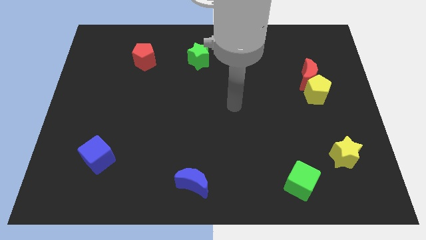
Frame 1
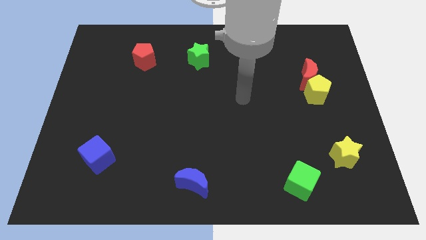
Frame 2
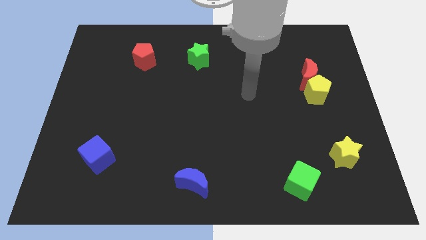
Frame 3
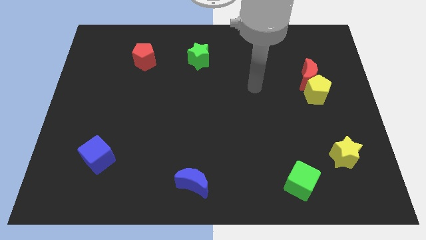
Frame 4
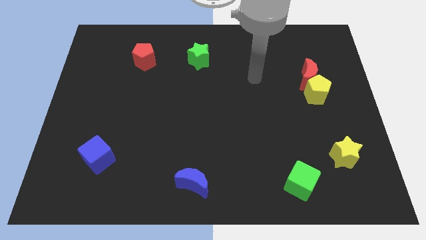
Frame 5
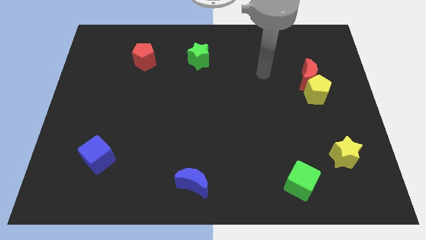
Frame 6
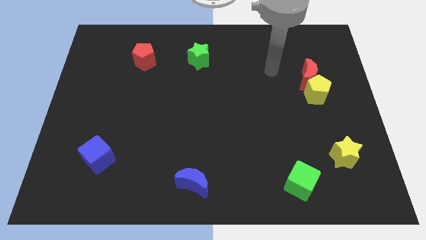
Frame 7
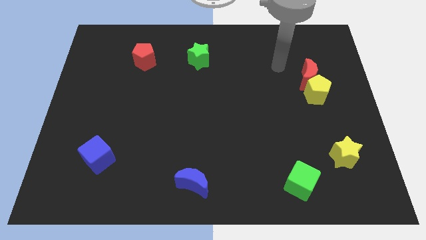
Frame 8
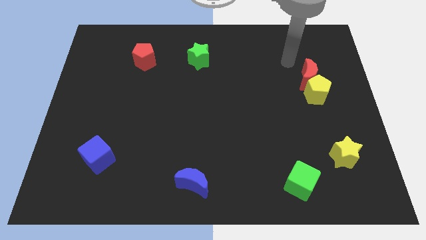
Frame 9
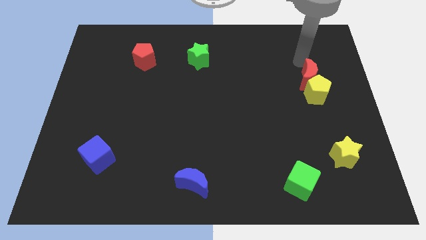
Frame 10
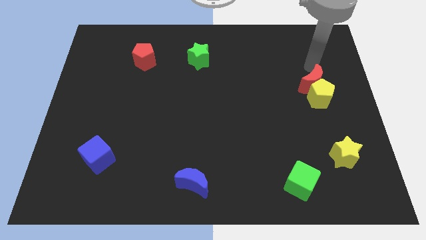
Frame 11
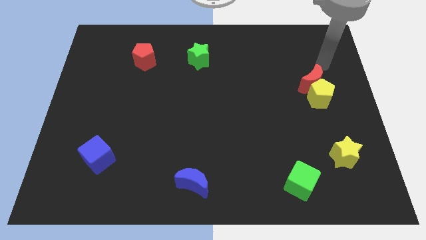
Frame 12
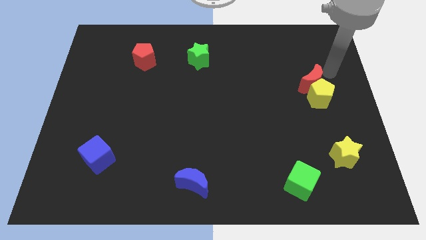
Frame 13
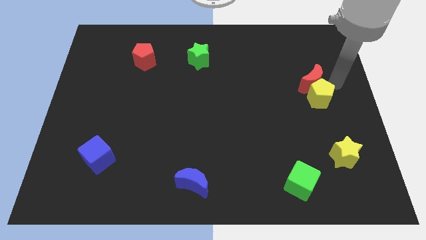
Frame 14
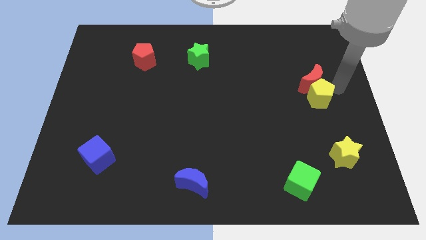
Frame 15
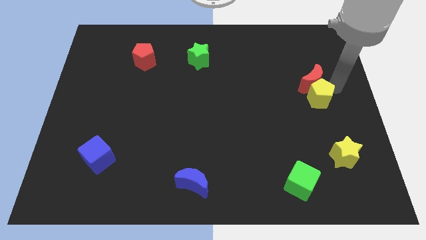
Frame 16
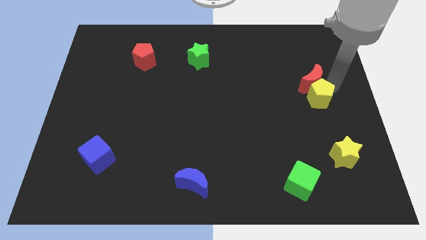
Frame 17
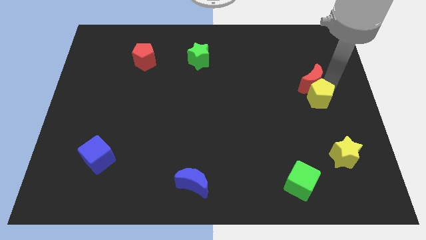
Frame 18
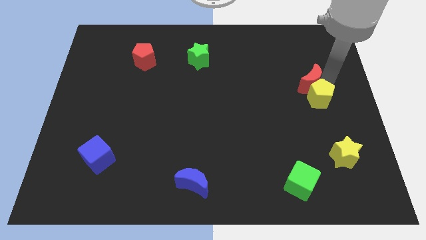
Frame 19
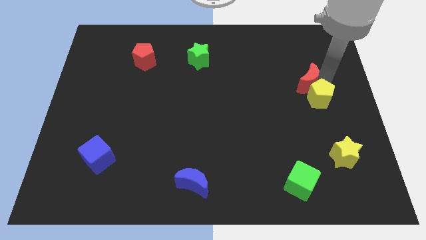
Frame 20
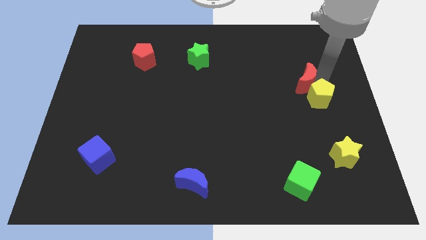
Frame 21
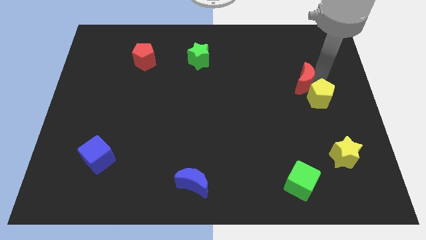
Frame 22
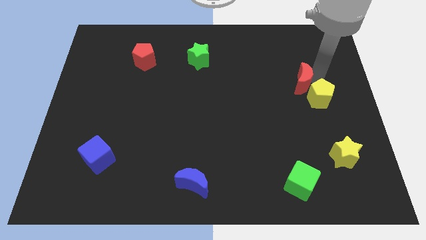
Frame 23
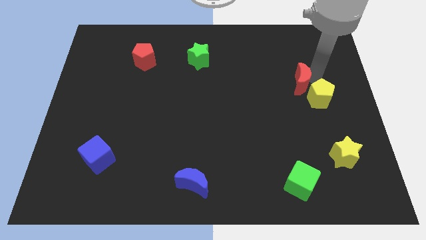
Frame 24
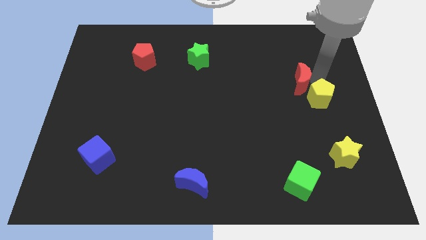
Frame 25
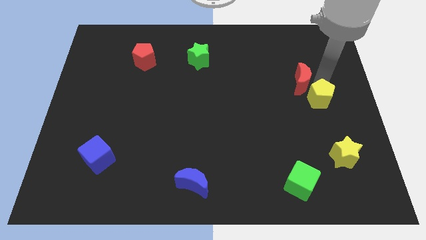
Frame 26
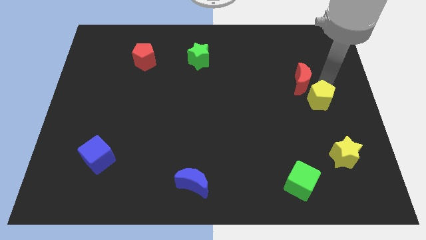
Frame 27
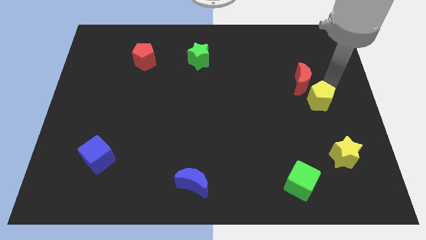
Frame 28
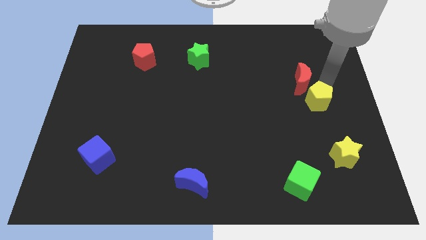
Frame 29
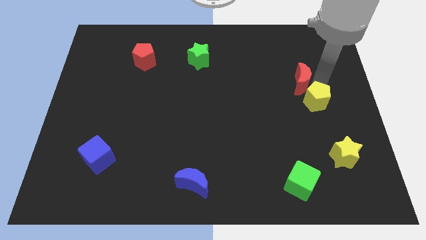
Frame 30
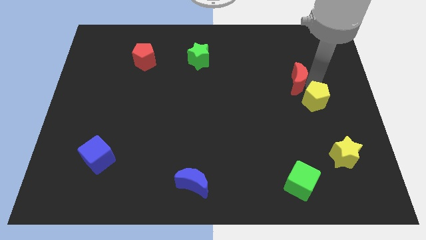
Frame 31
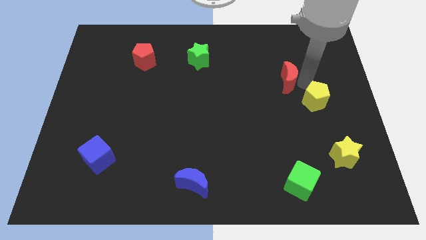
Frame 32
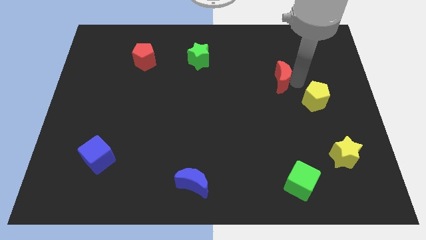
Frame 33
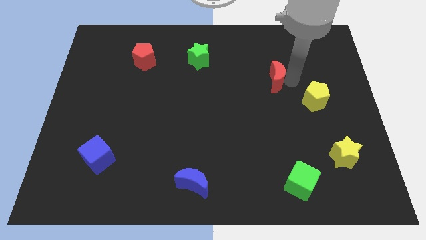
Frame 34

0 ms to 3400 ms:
push the red moon somewhat to the left

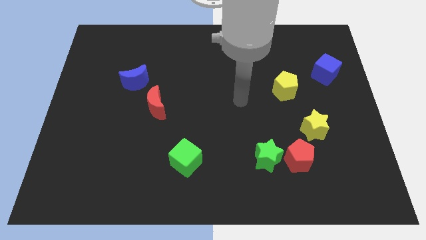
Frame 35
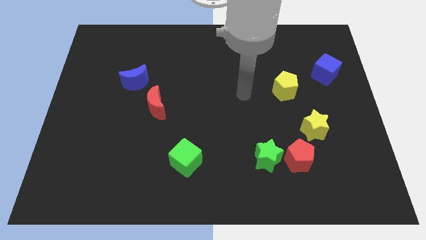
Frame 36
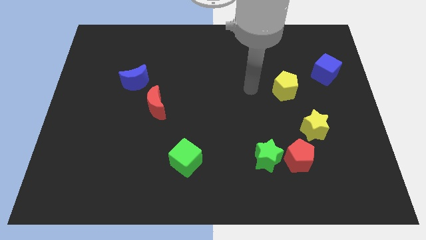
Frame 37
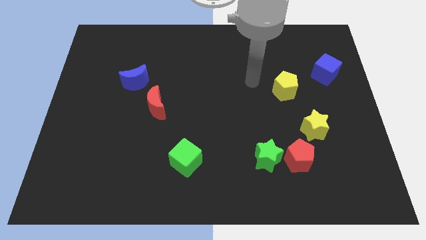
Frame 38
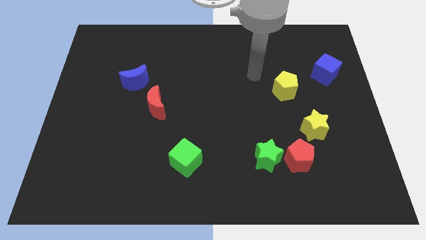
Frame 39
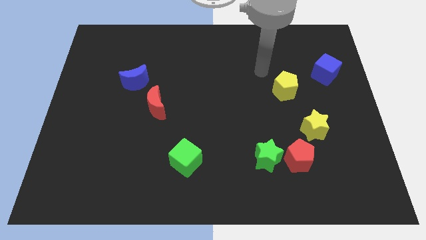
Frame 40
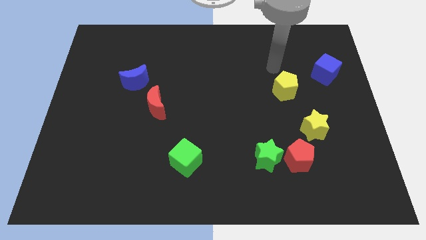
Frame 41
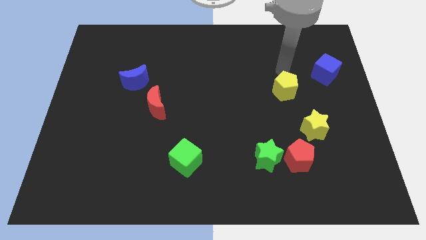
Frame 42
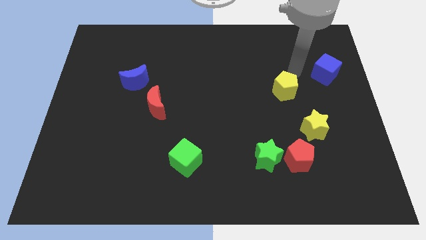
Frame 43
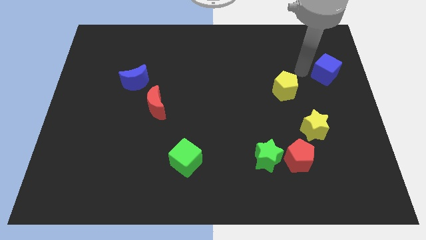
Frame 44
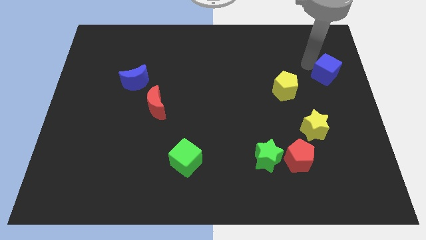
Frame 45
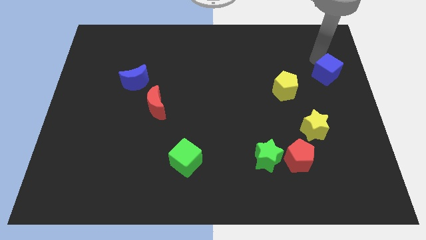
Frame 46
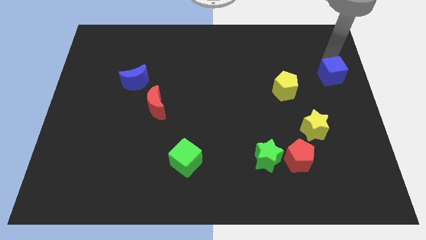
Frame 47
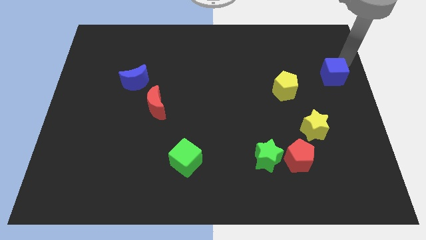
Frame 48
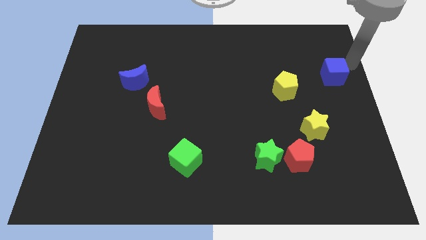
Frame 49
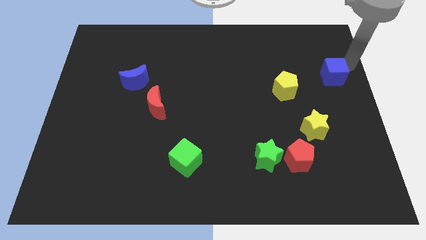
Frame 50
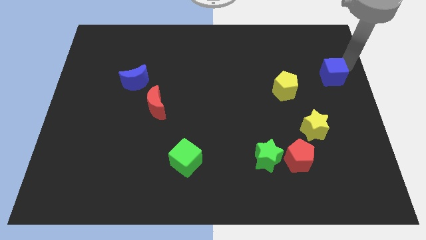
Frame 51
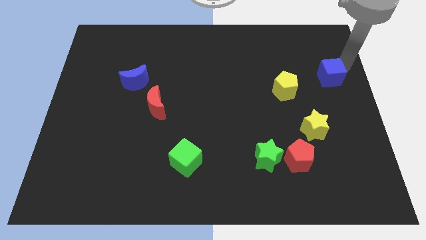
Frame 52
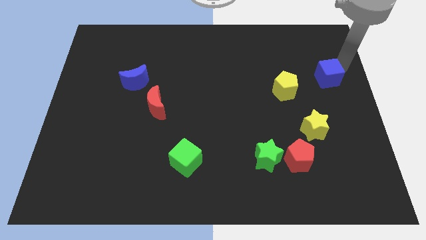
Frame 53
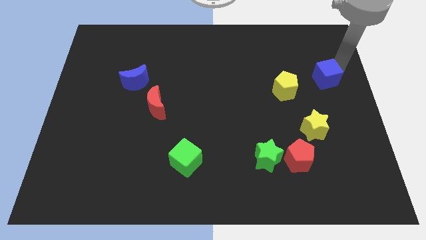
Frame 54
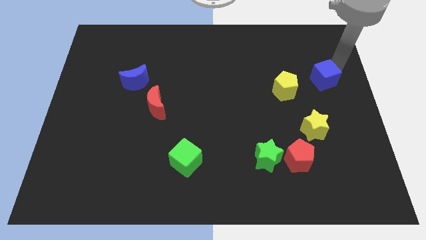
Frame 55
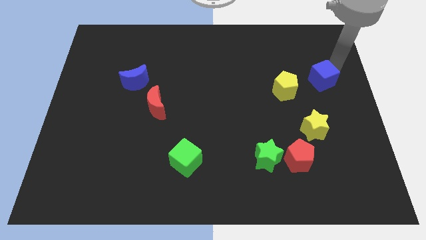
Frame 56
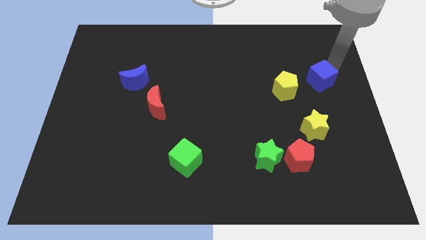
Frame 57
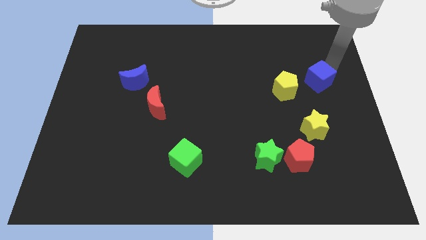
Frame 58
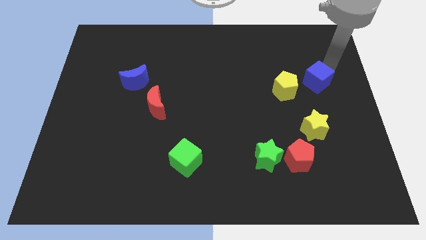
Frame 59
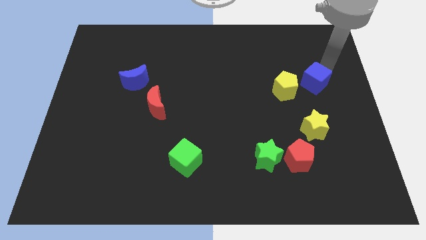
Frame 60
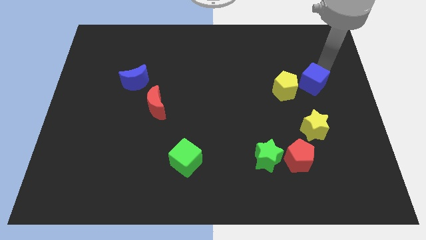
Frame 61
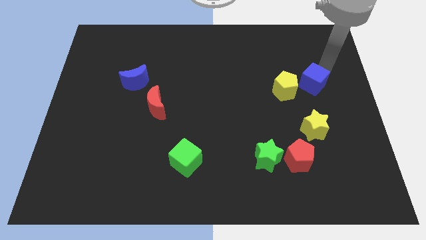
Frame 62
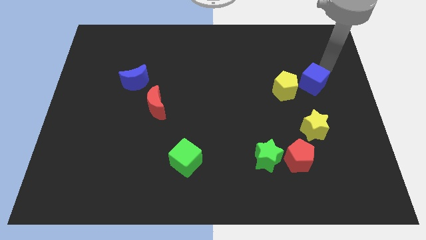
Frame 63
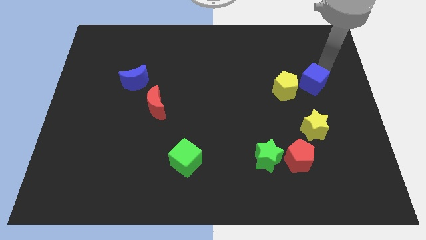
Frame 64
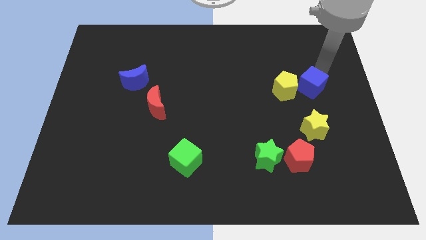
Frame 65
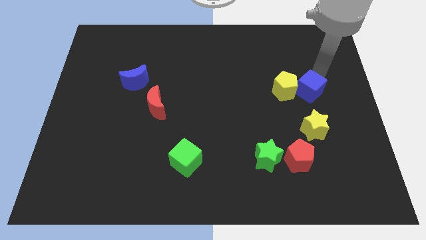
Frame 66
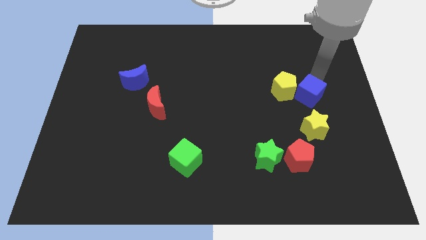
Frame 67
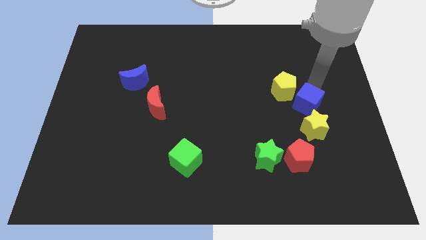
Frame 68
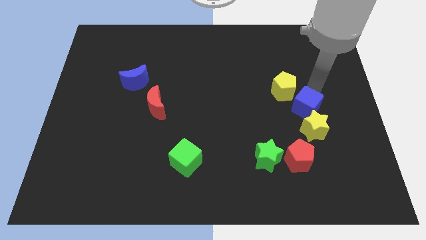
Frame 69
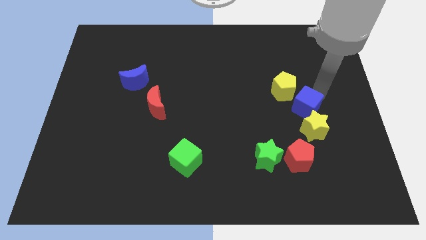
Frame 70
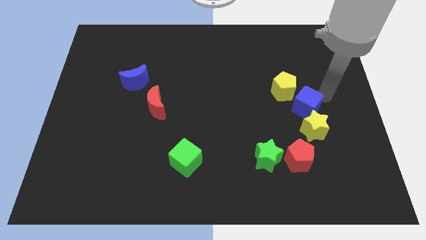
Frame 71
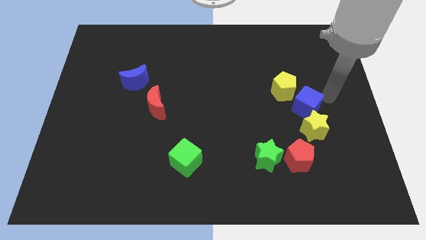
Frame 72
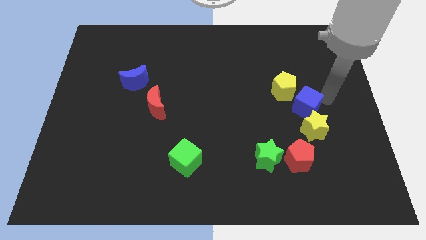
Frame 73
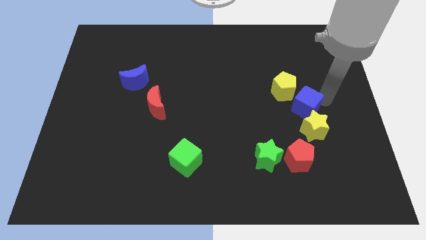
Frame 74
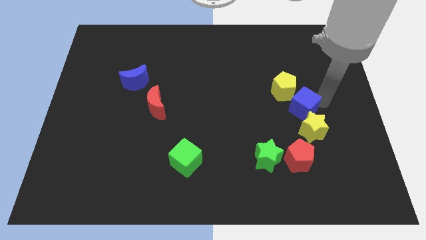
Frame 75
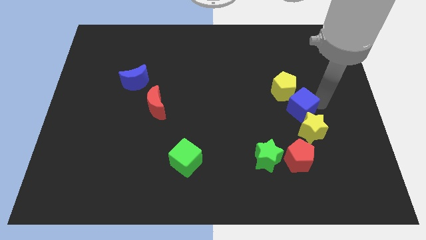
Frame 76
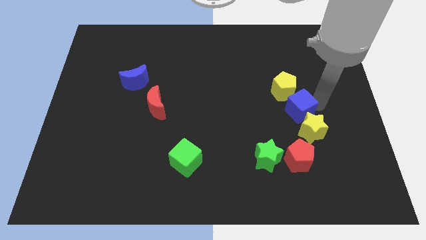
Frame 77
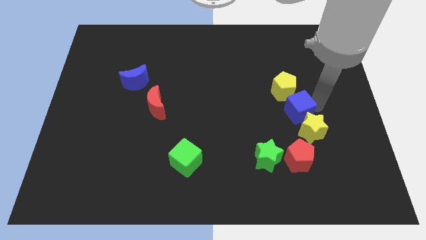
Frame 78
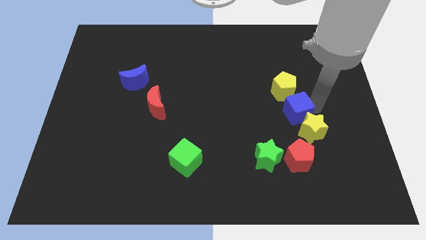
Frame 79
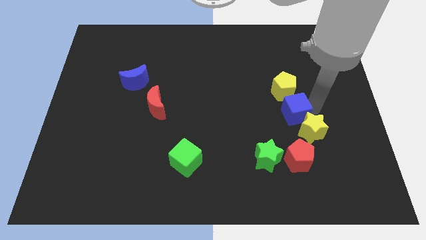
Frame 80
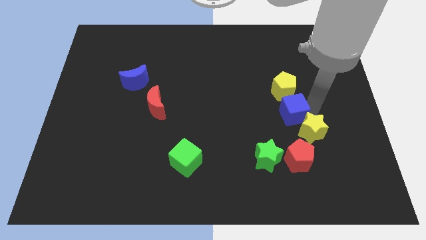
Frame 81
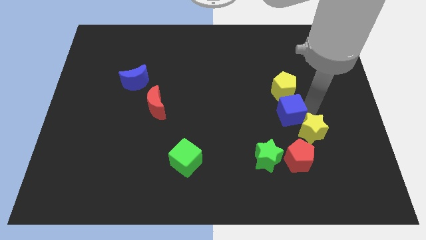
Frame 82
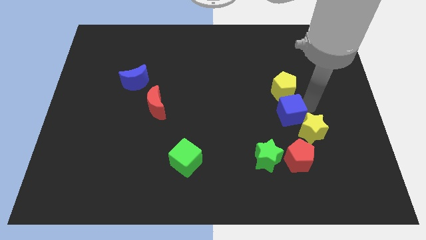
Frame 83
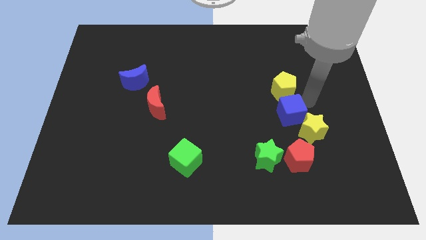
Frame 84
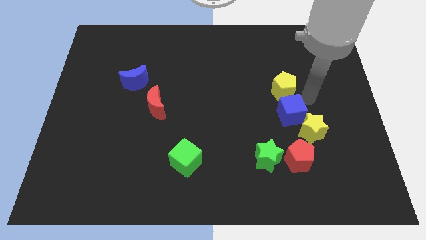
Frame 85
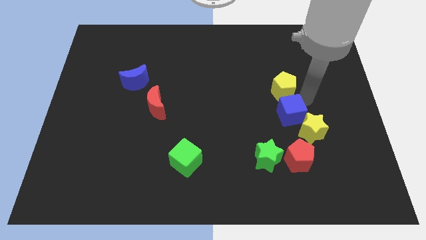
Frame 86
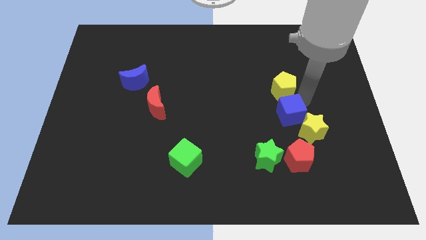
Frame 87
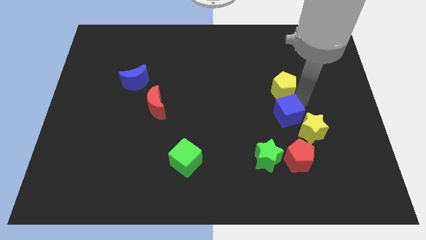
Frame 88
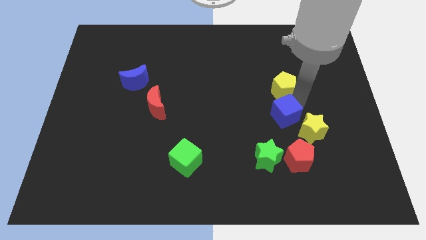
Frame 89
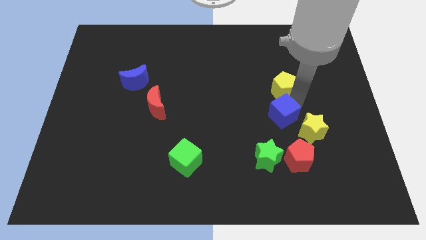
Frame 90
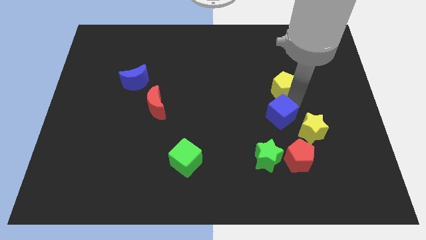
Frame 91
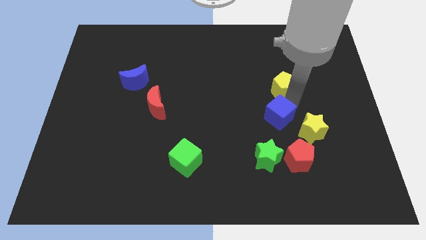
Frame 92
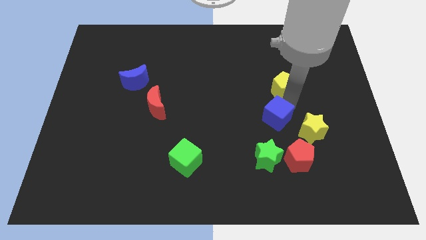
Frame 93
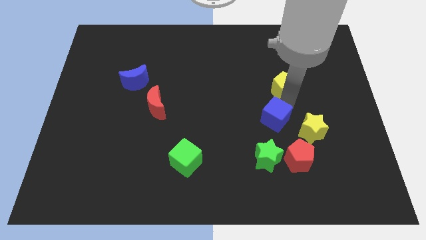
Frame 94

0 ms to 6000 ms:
slide the blue cube downwards and to the left diagonally
